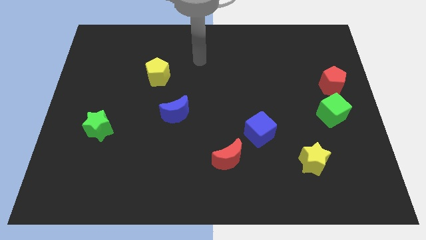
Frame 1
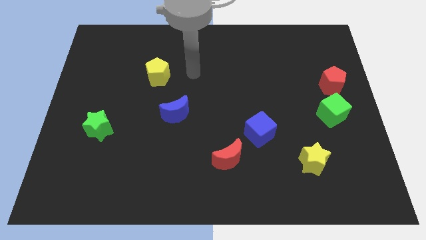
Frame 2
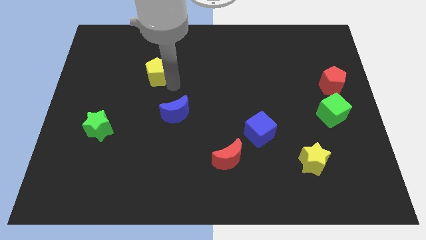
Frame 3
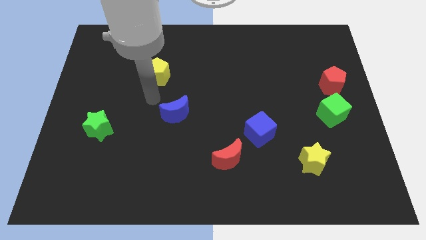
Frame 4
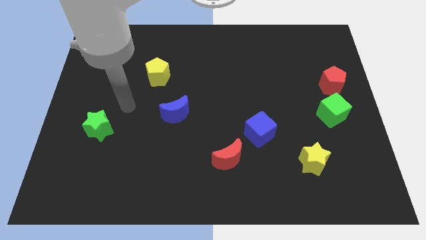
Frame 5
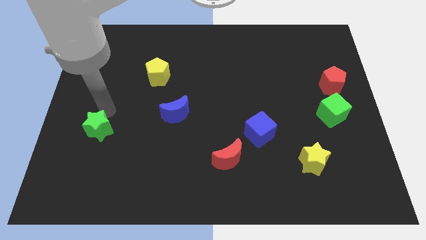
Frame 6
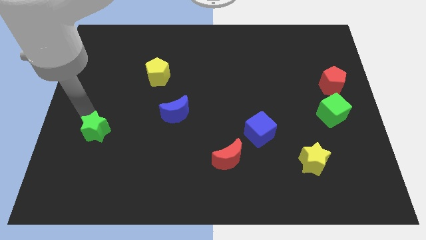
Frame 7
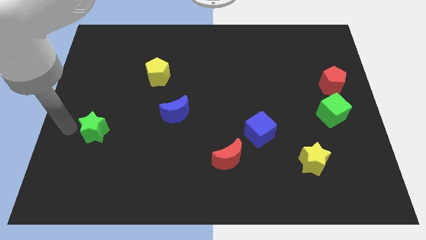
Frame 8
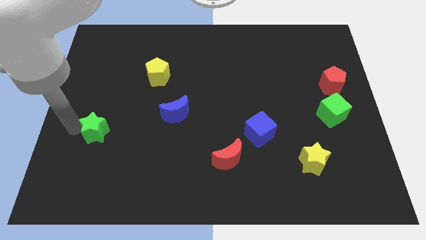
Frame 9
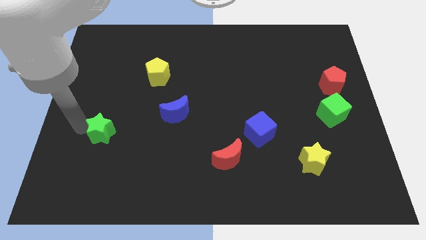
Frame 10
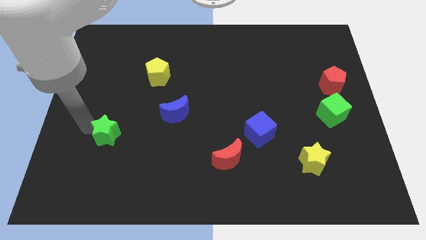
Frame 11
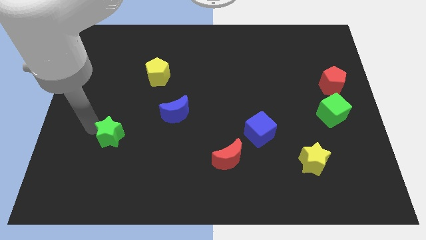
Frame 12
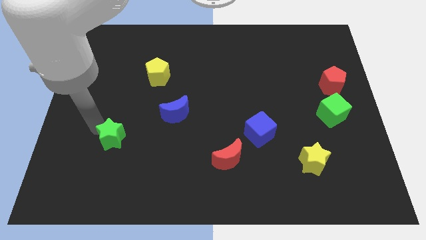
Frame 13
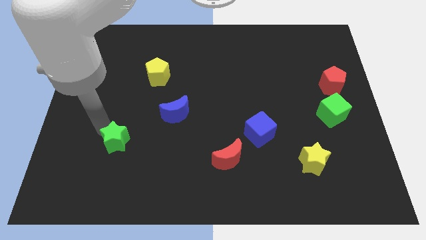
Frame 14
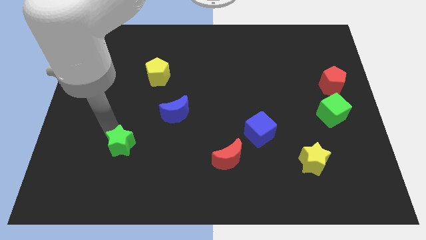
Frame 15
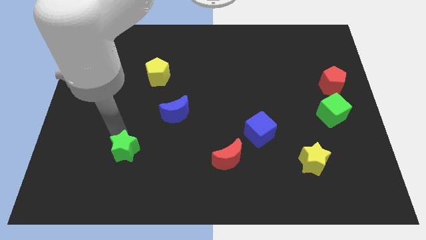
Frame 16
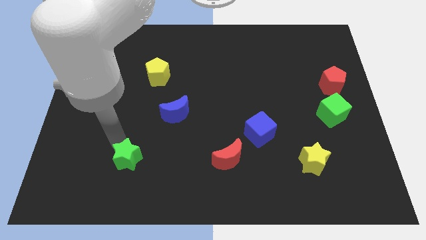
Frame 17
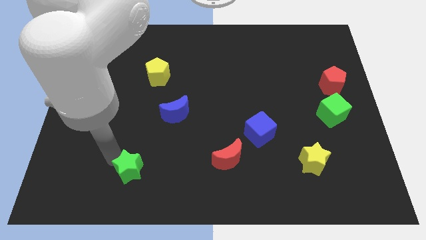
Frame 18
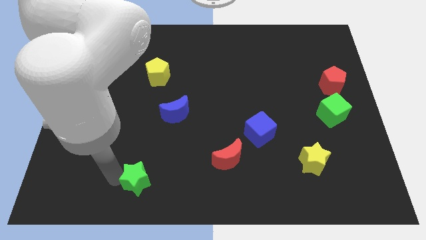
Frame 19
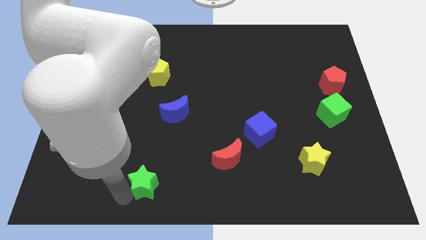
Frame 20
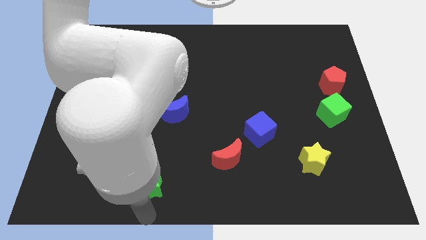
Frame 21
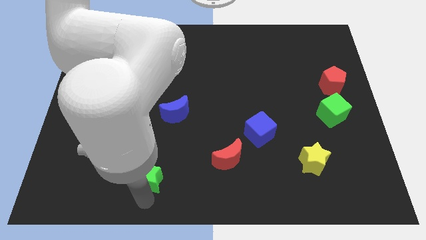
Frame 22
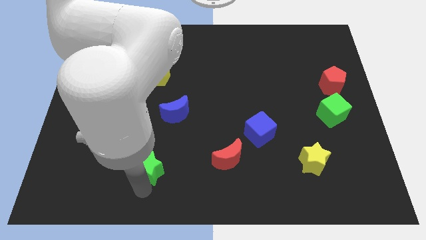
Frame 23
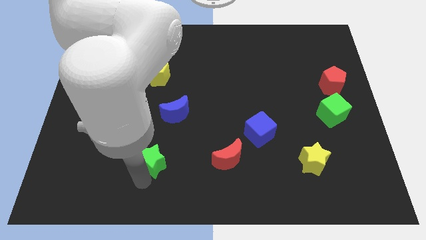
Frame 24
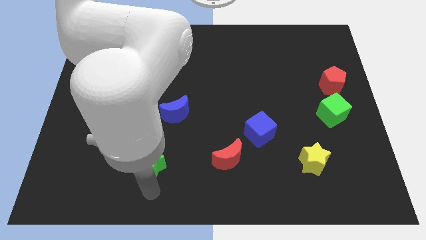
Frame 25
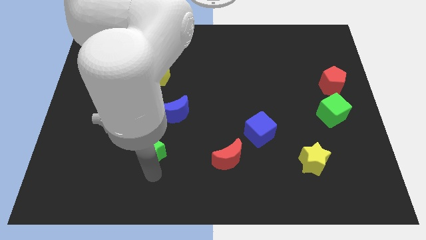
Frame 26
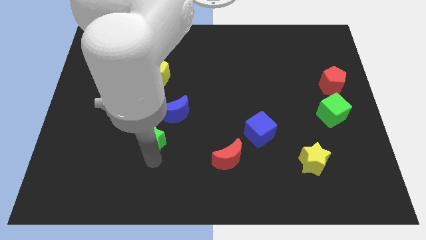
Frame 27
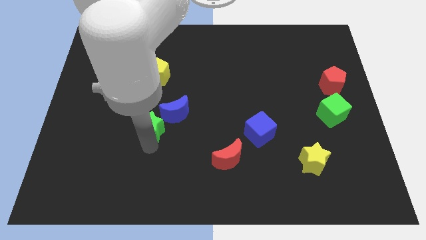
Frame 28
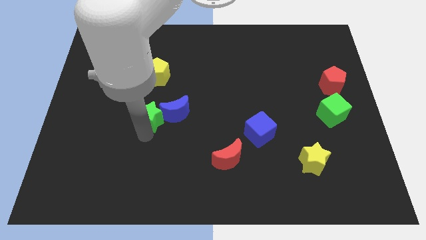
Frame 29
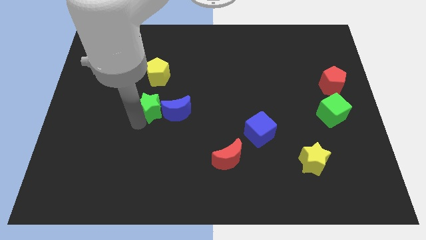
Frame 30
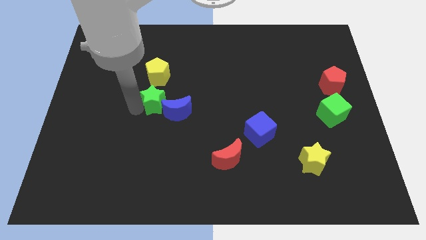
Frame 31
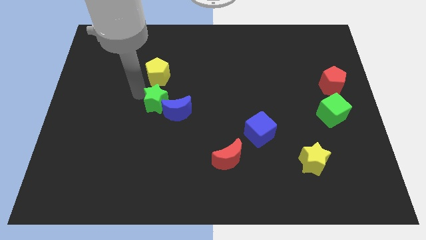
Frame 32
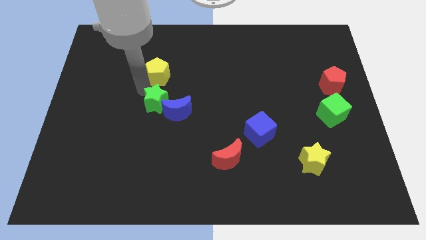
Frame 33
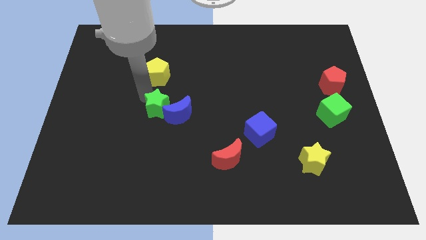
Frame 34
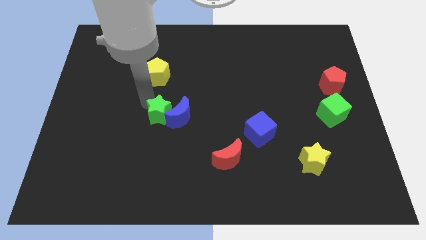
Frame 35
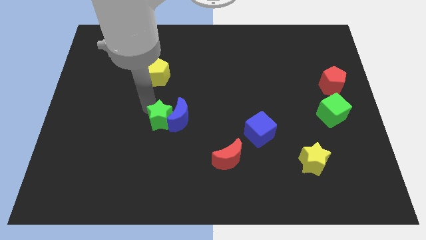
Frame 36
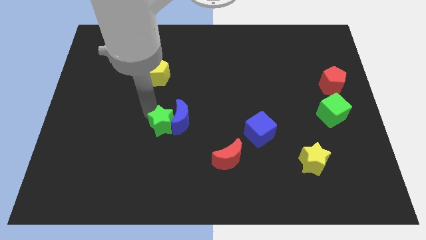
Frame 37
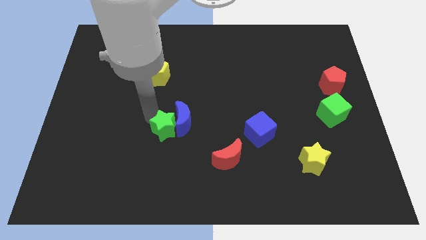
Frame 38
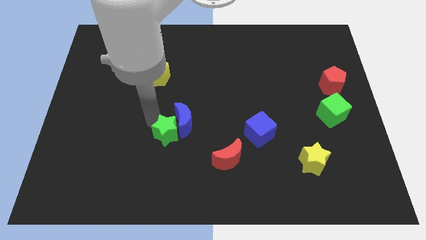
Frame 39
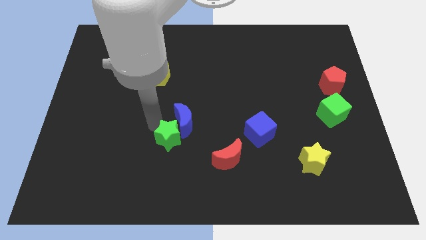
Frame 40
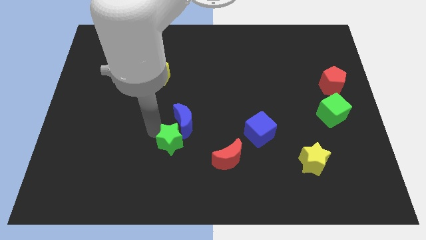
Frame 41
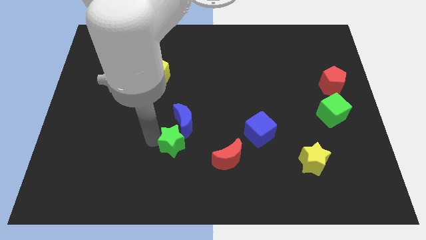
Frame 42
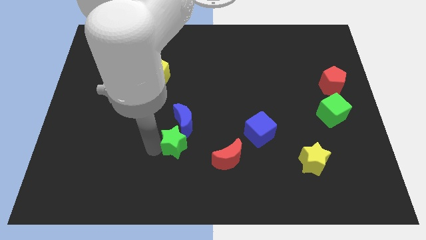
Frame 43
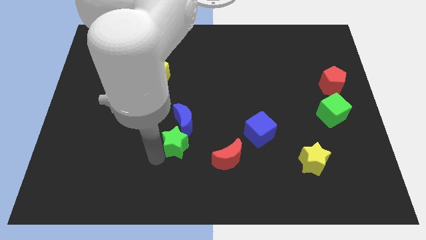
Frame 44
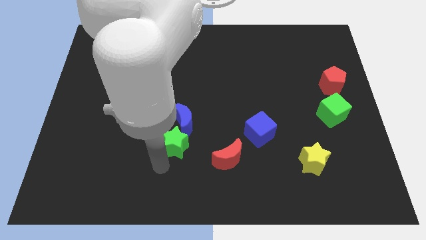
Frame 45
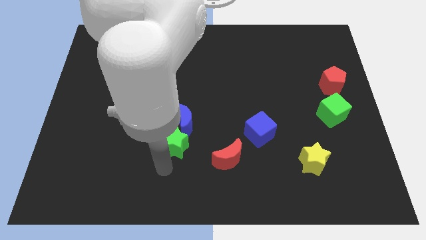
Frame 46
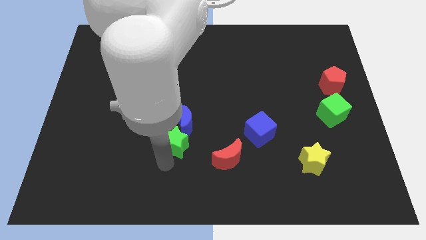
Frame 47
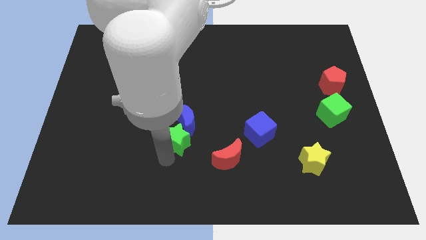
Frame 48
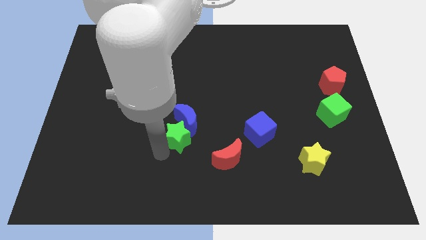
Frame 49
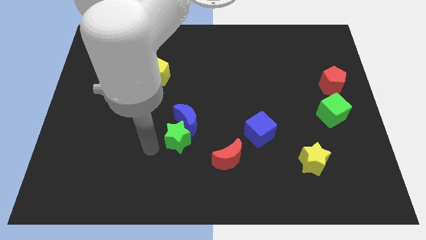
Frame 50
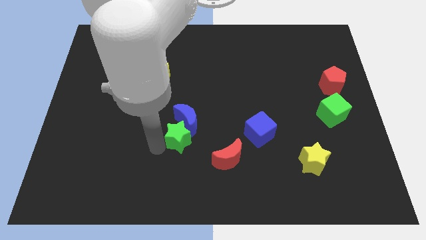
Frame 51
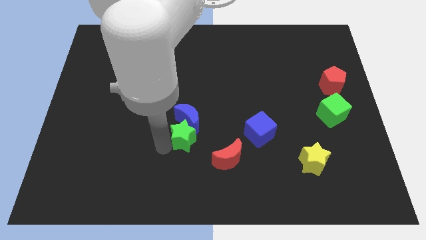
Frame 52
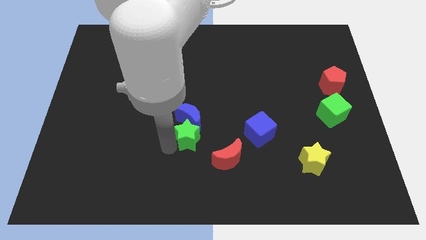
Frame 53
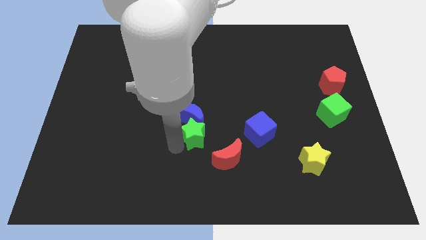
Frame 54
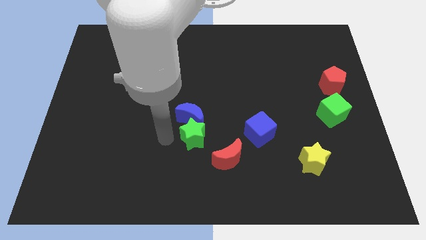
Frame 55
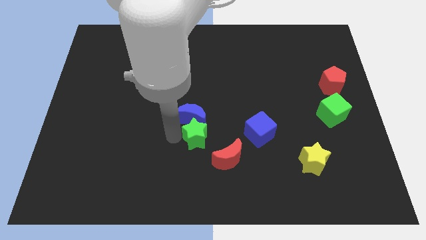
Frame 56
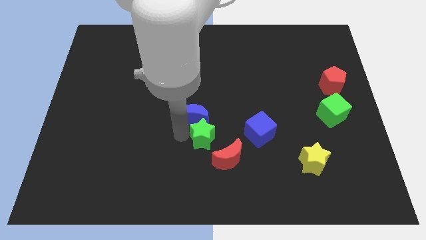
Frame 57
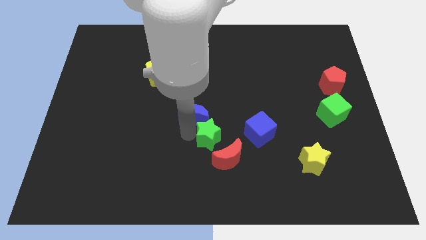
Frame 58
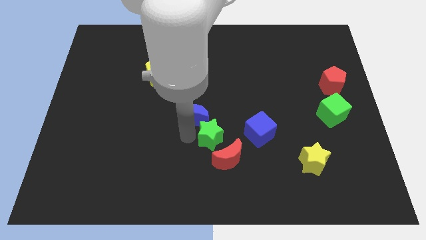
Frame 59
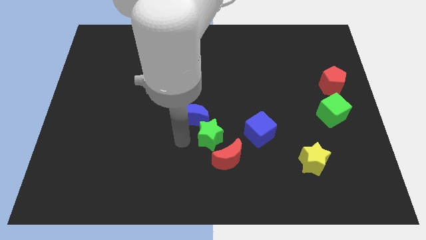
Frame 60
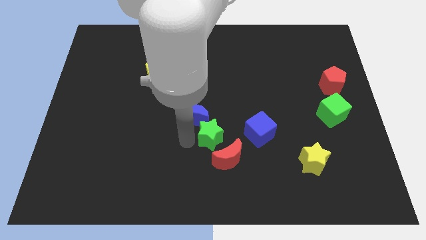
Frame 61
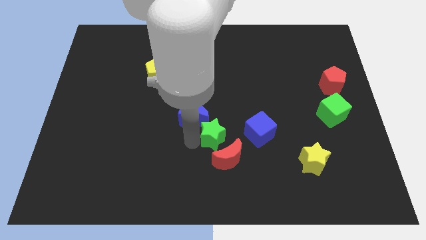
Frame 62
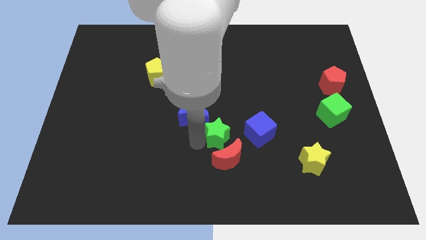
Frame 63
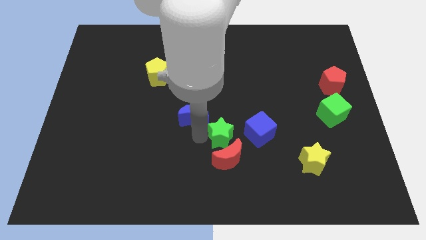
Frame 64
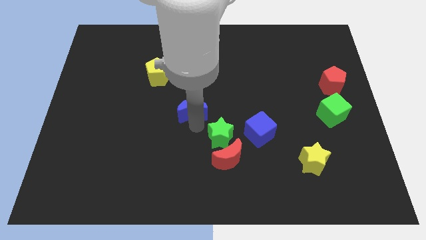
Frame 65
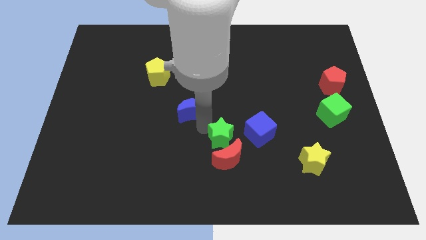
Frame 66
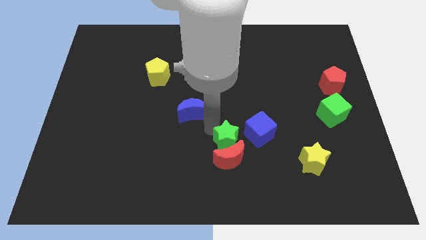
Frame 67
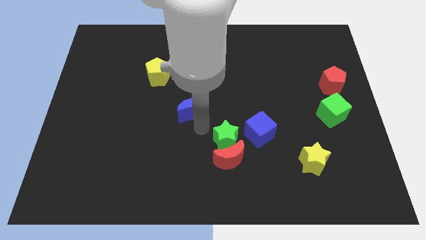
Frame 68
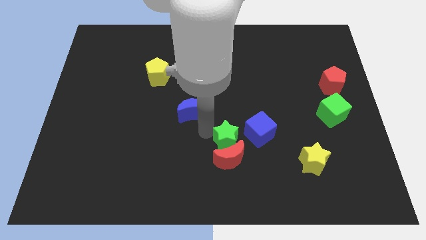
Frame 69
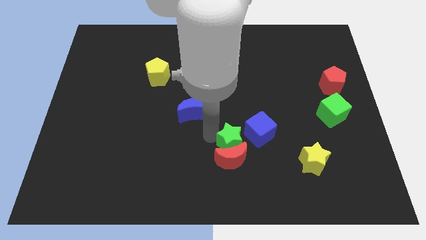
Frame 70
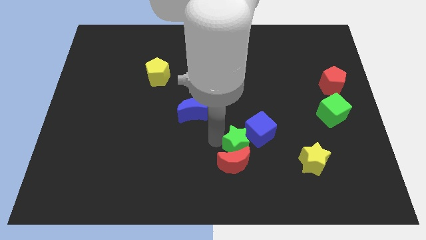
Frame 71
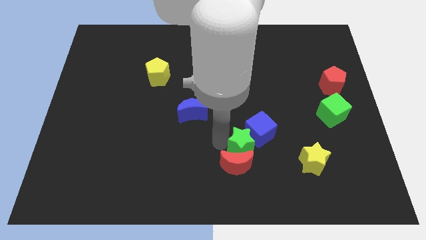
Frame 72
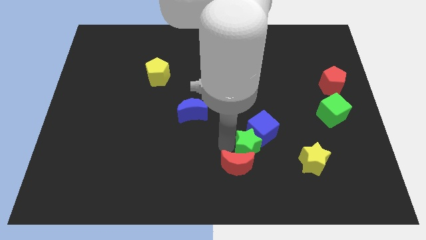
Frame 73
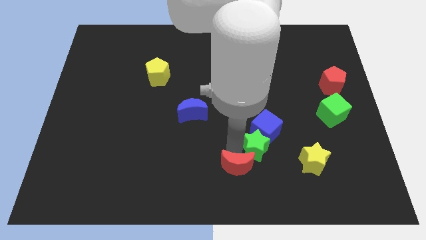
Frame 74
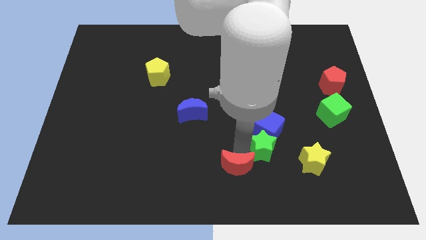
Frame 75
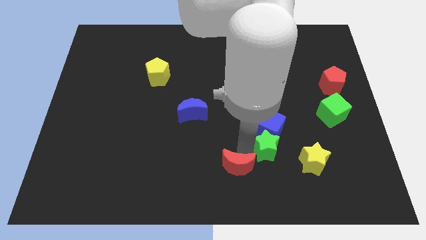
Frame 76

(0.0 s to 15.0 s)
put the green star diagonally up and to the left of the yellow star

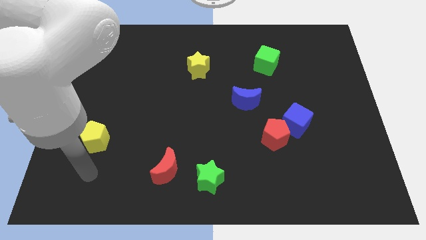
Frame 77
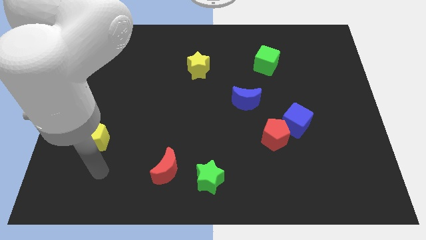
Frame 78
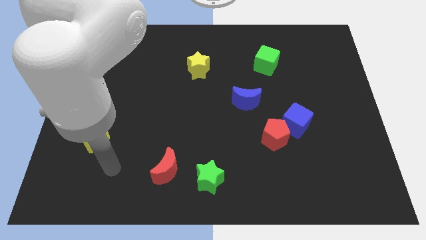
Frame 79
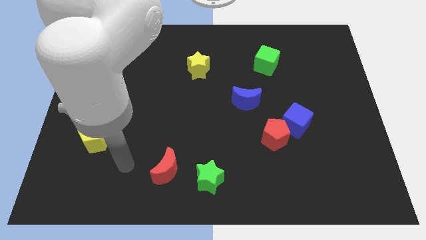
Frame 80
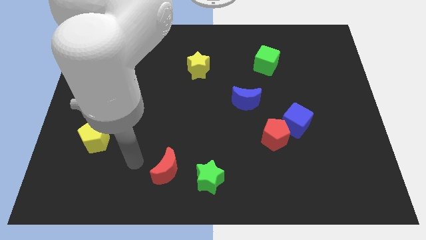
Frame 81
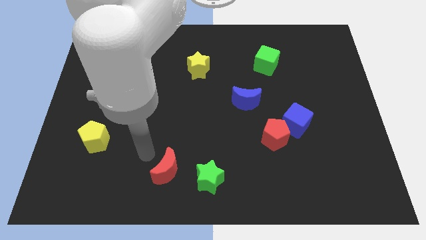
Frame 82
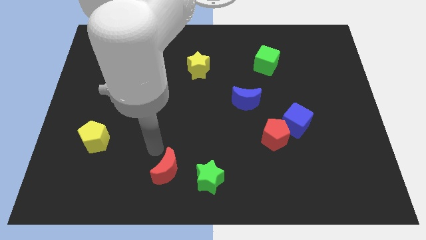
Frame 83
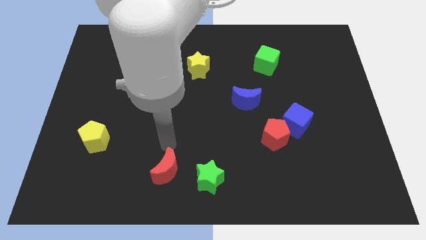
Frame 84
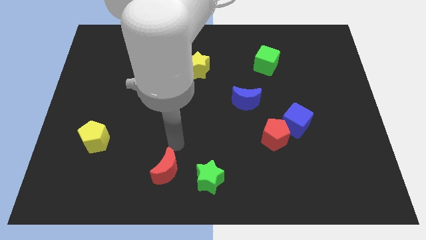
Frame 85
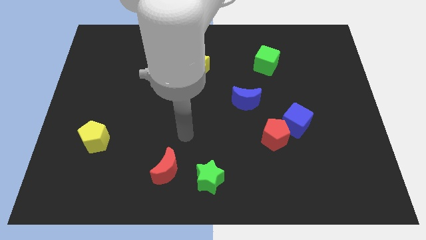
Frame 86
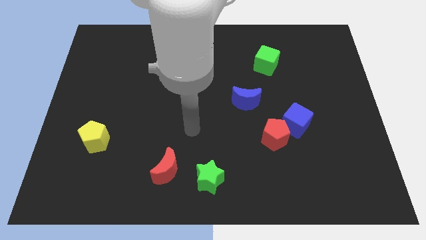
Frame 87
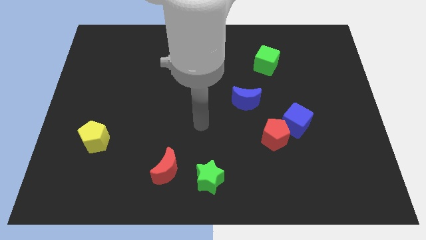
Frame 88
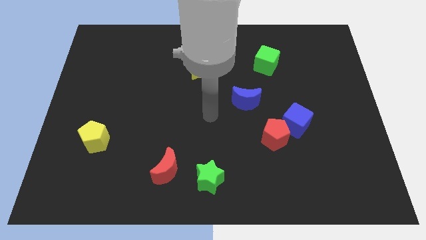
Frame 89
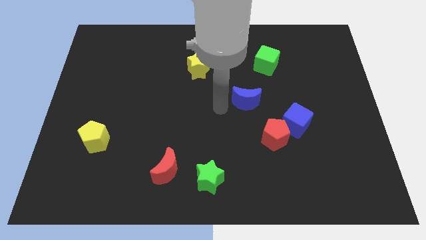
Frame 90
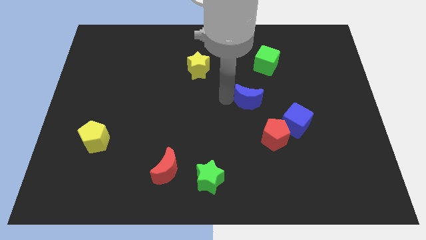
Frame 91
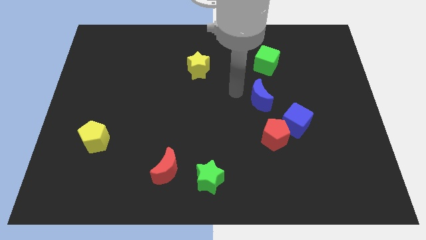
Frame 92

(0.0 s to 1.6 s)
move the green cube to the top side of the blue moon
